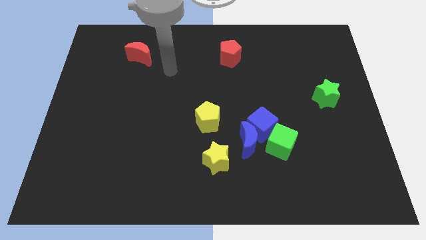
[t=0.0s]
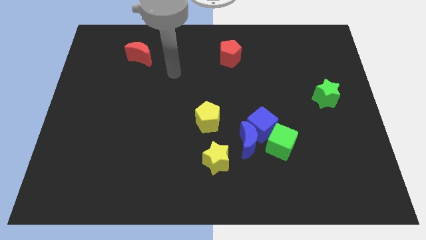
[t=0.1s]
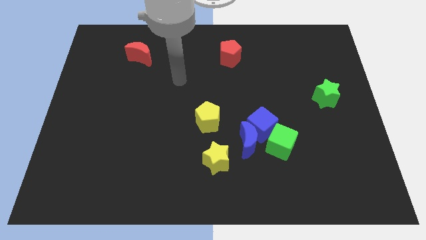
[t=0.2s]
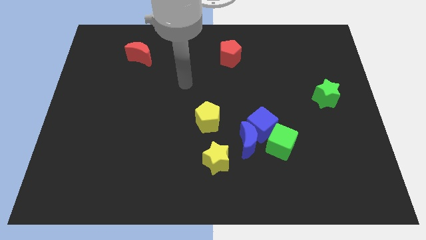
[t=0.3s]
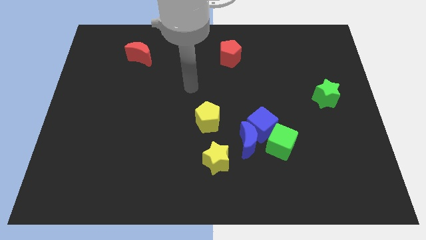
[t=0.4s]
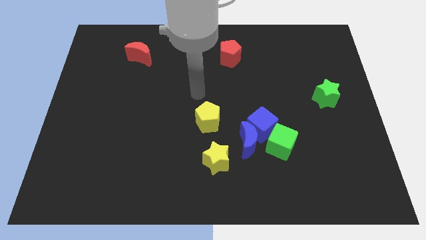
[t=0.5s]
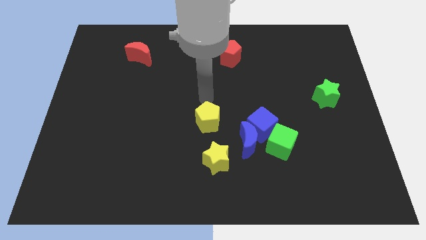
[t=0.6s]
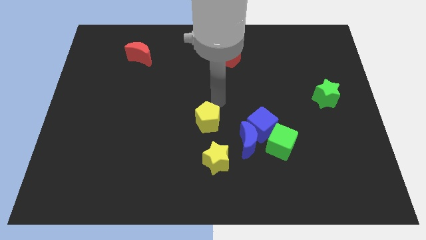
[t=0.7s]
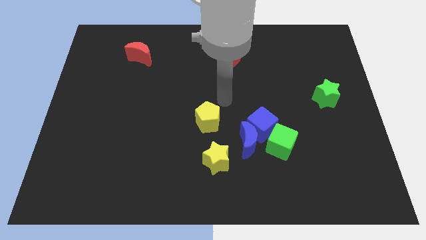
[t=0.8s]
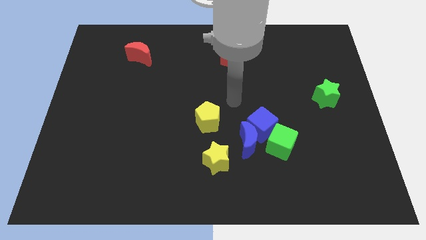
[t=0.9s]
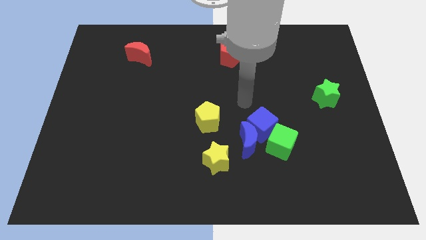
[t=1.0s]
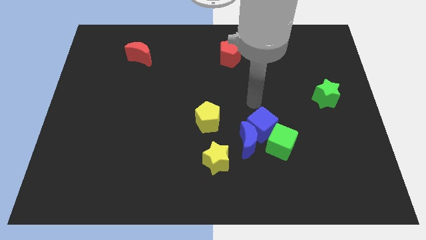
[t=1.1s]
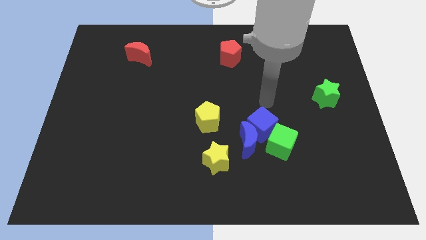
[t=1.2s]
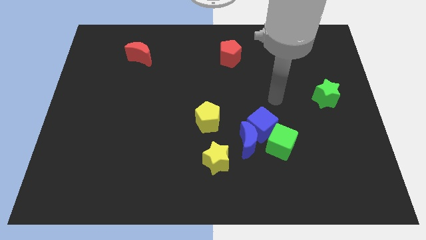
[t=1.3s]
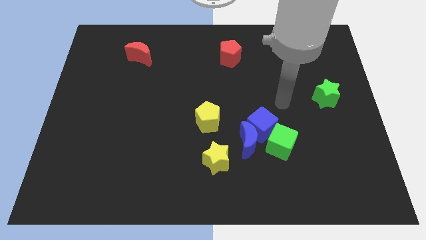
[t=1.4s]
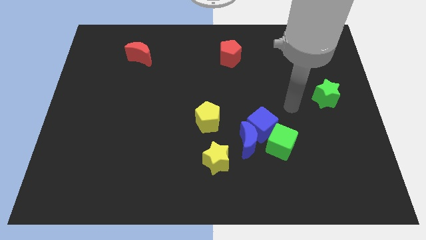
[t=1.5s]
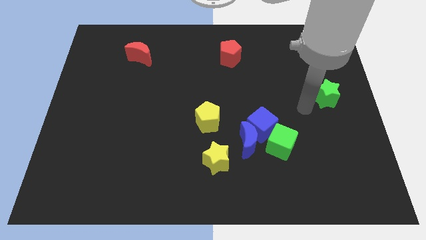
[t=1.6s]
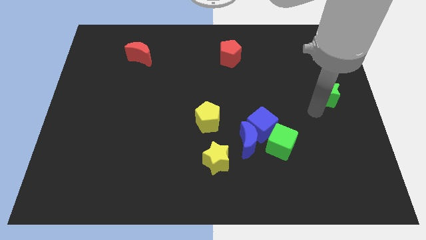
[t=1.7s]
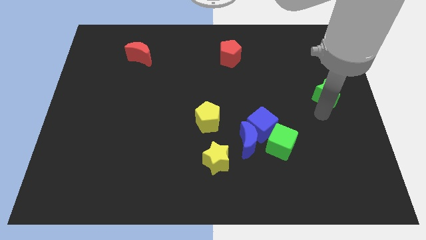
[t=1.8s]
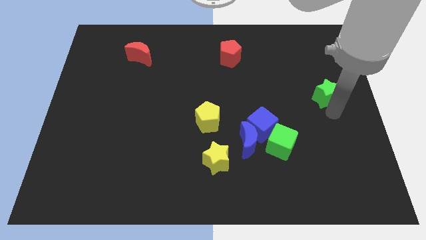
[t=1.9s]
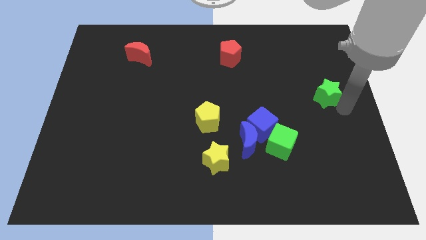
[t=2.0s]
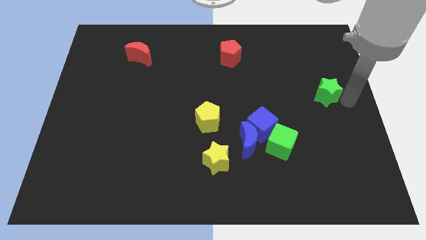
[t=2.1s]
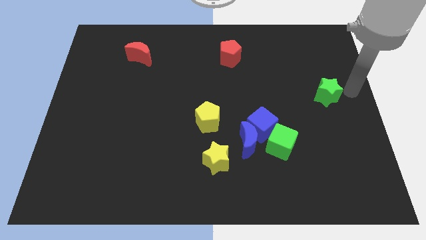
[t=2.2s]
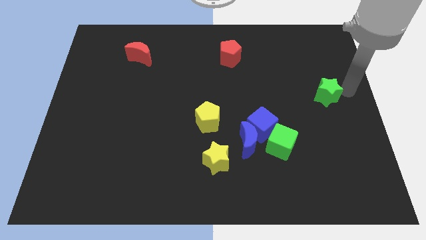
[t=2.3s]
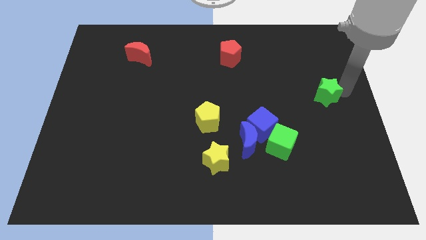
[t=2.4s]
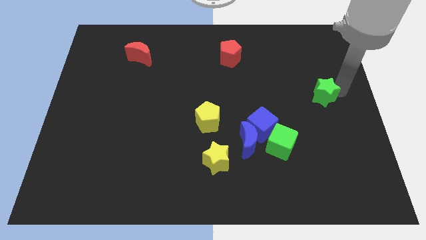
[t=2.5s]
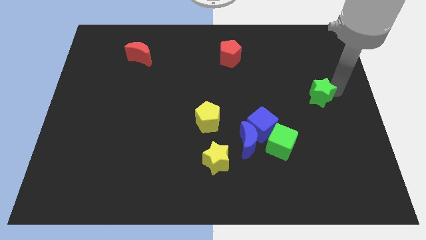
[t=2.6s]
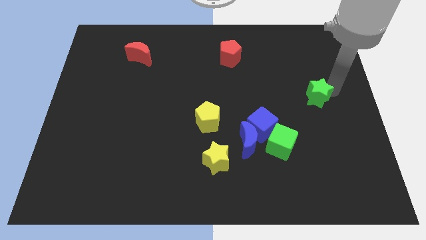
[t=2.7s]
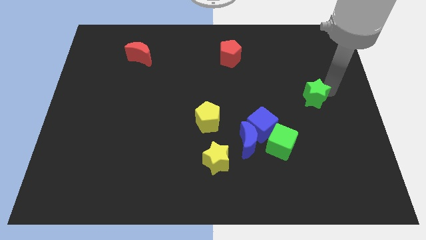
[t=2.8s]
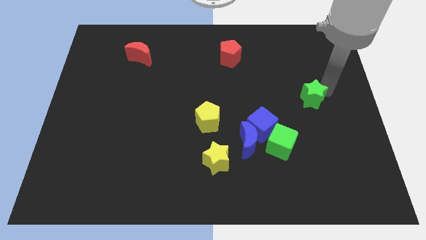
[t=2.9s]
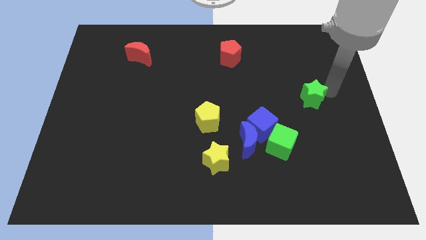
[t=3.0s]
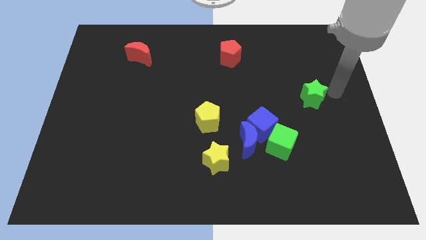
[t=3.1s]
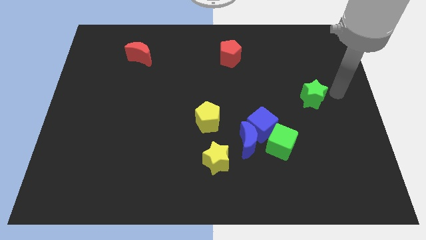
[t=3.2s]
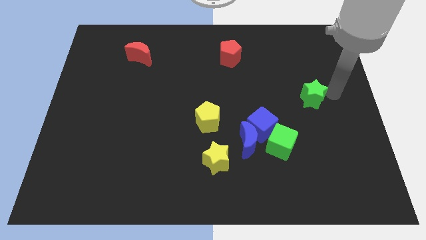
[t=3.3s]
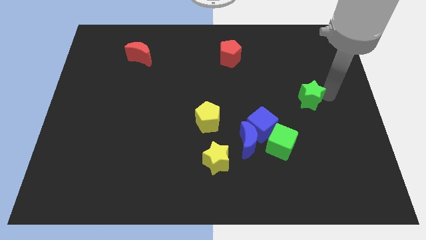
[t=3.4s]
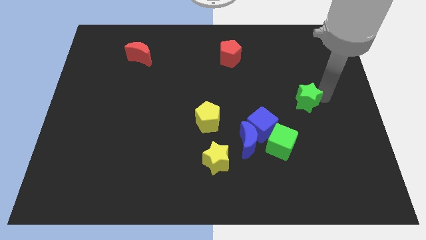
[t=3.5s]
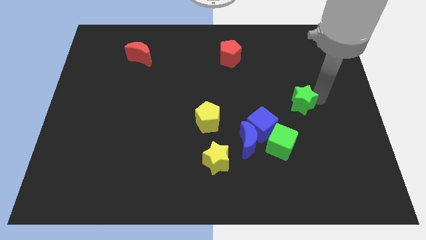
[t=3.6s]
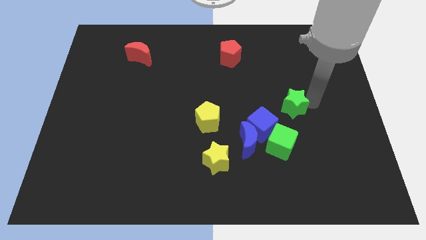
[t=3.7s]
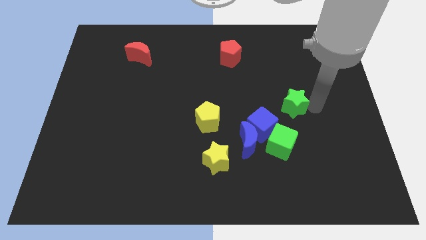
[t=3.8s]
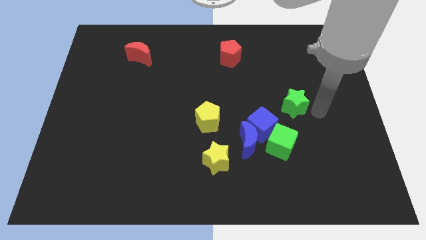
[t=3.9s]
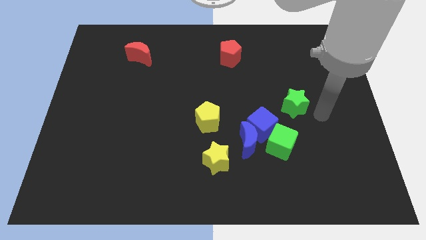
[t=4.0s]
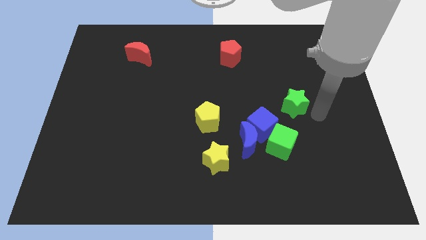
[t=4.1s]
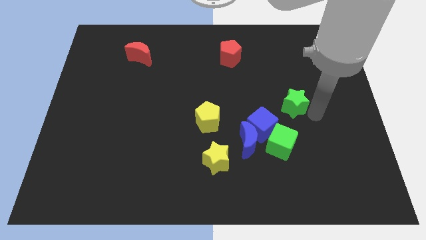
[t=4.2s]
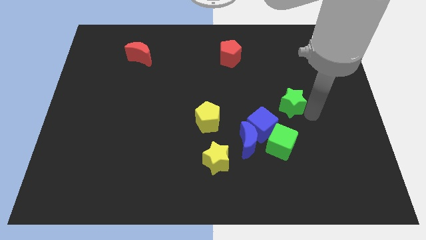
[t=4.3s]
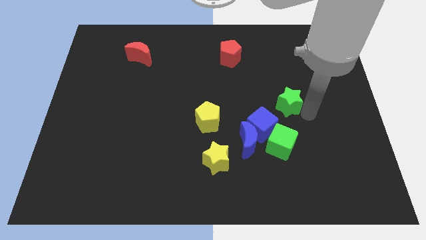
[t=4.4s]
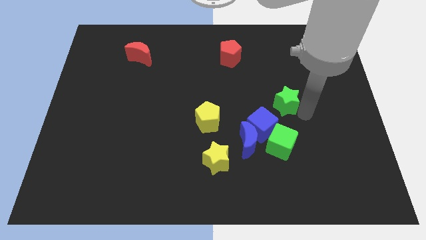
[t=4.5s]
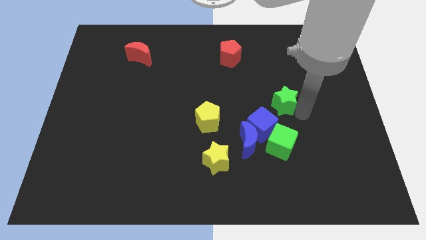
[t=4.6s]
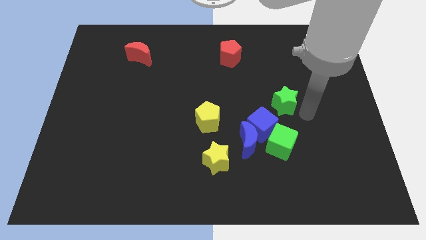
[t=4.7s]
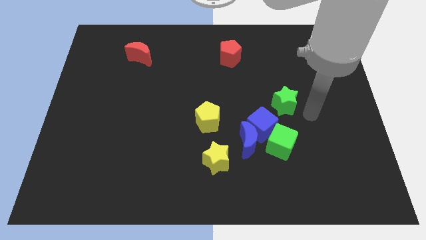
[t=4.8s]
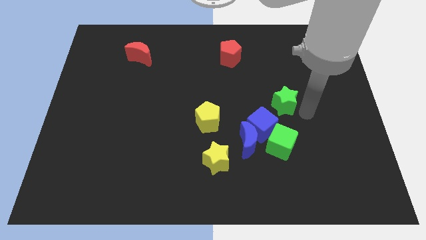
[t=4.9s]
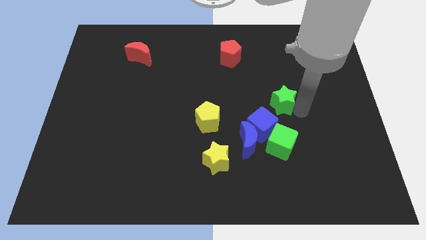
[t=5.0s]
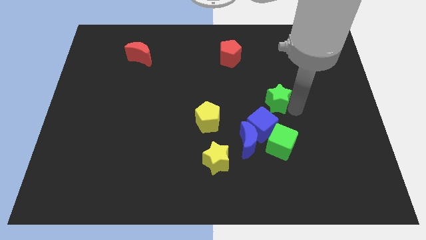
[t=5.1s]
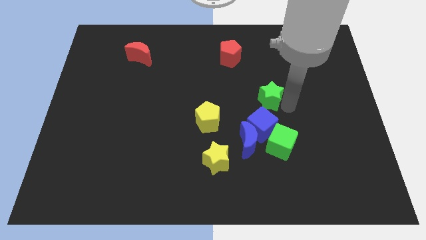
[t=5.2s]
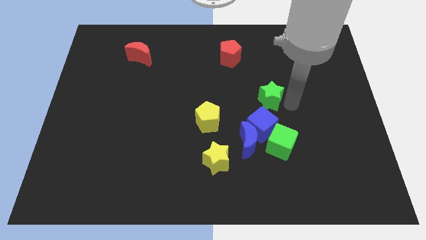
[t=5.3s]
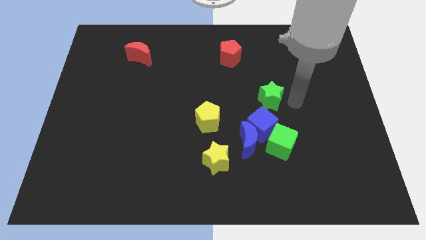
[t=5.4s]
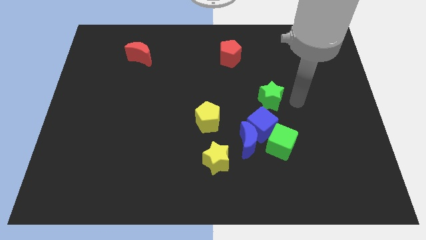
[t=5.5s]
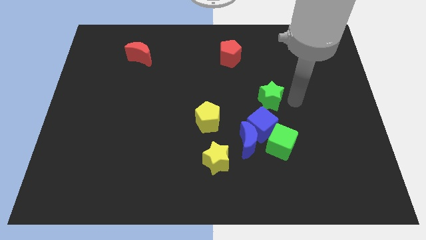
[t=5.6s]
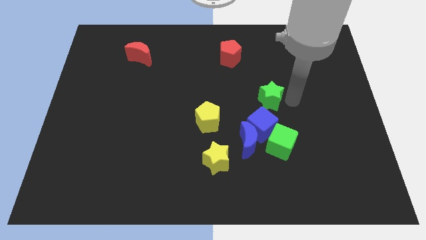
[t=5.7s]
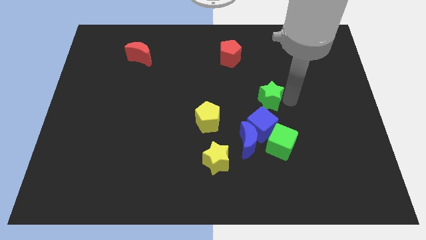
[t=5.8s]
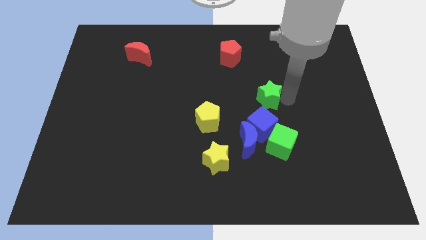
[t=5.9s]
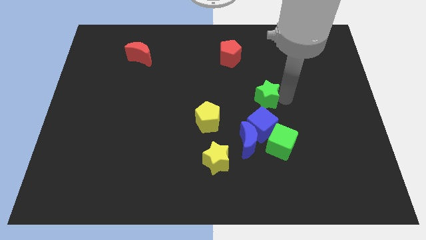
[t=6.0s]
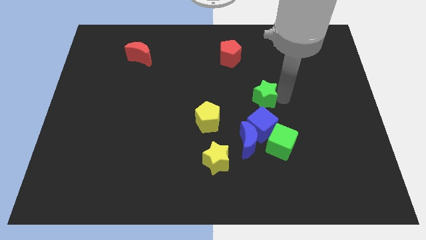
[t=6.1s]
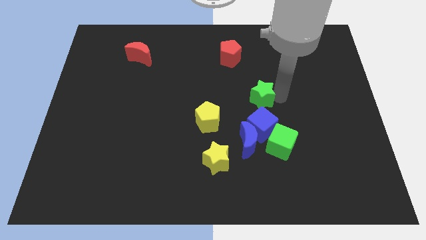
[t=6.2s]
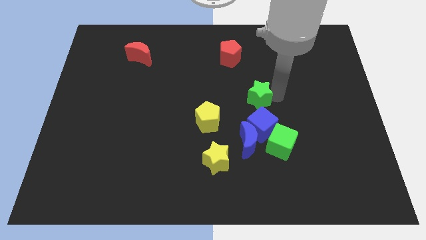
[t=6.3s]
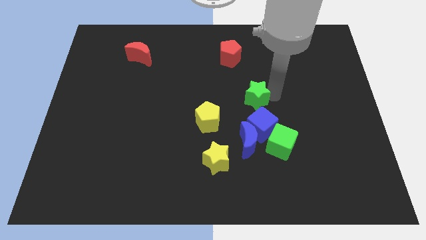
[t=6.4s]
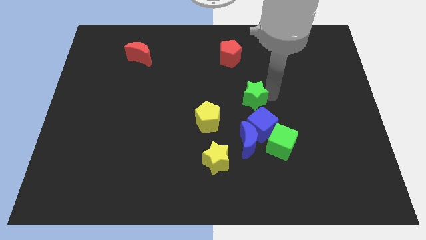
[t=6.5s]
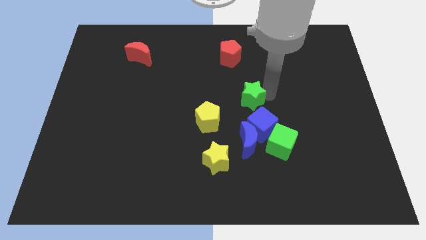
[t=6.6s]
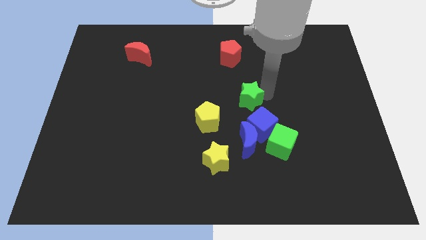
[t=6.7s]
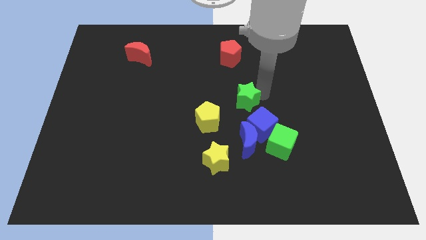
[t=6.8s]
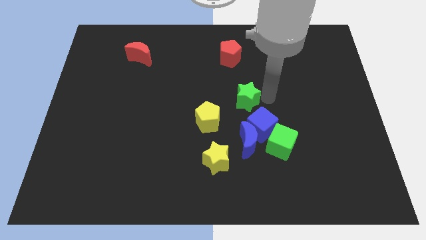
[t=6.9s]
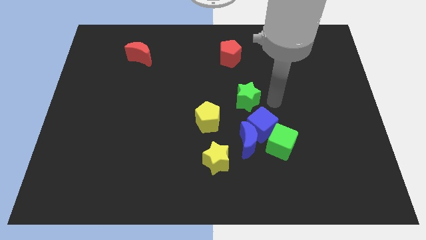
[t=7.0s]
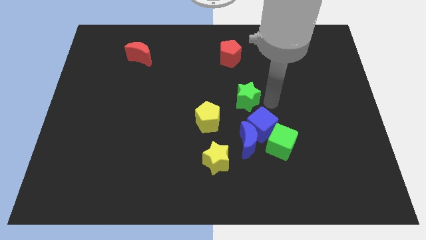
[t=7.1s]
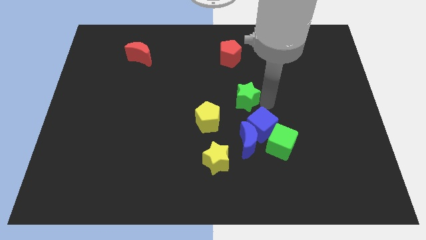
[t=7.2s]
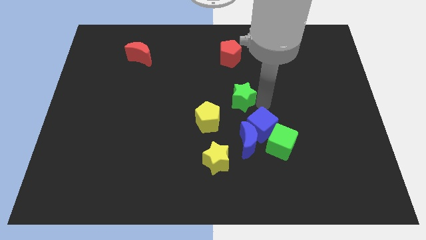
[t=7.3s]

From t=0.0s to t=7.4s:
move the green star left

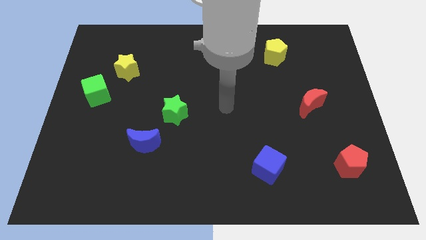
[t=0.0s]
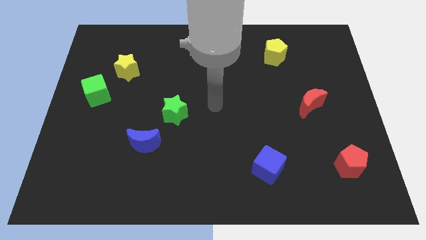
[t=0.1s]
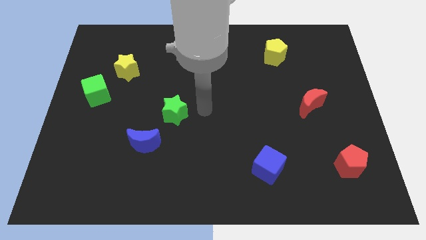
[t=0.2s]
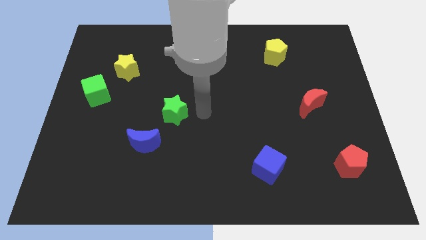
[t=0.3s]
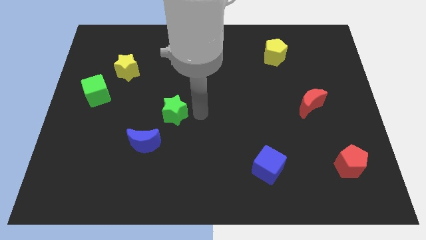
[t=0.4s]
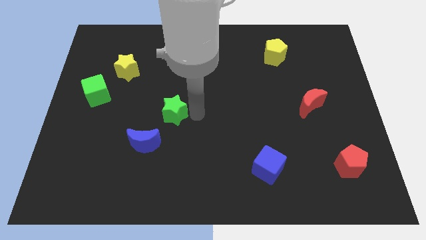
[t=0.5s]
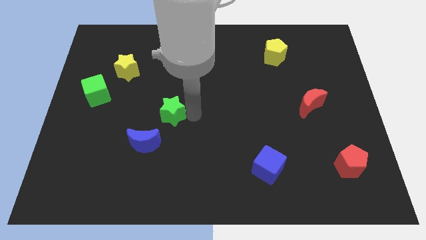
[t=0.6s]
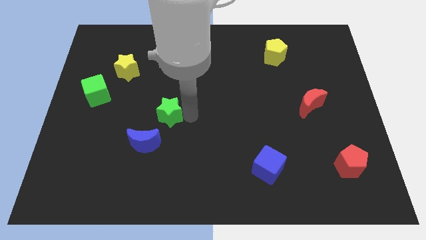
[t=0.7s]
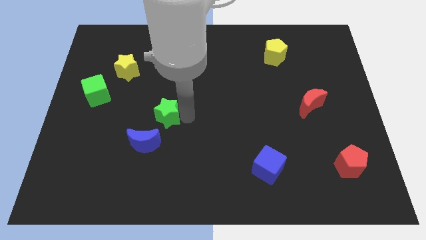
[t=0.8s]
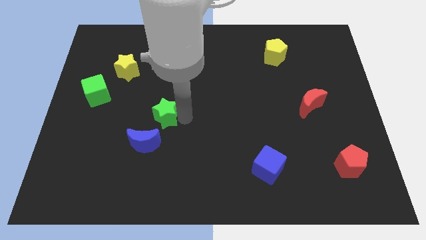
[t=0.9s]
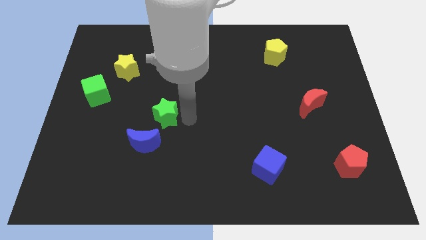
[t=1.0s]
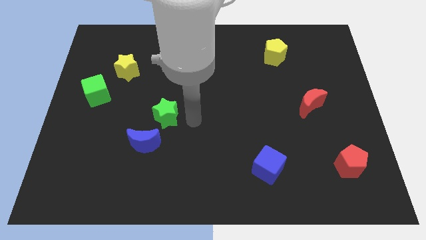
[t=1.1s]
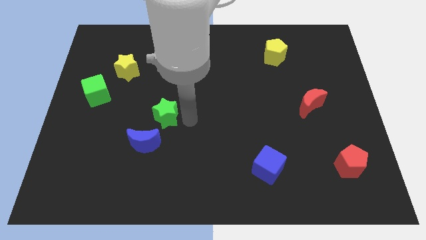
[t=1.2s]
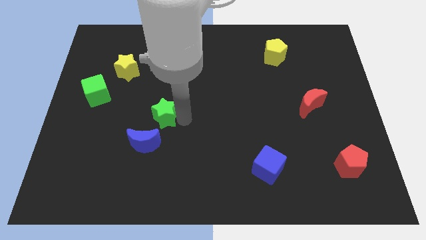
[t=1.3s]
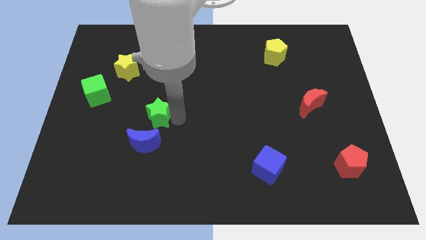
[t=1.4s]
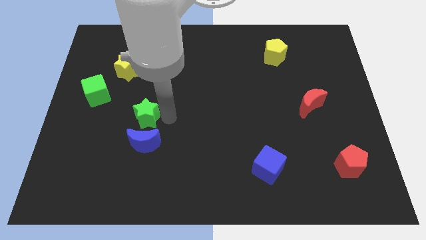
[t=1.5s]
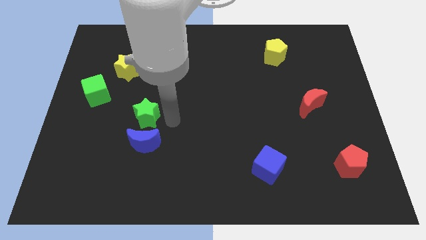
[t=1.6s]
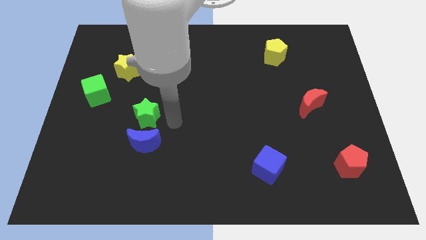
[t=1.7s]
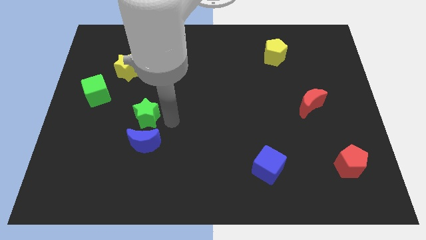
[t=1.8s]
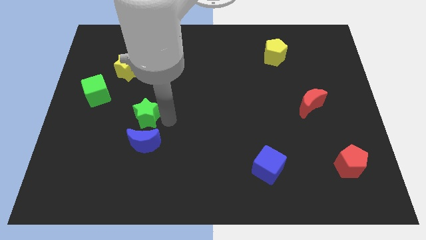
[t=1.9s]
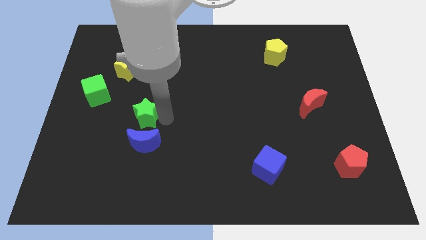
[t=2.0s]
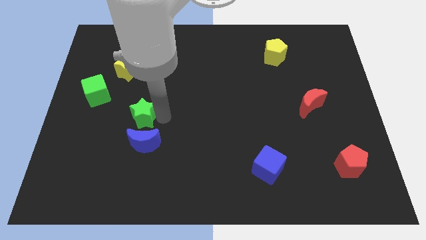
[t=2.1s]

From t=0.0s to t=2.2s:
move the green star a bit left
